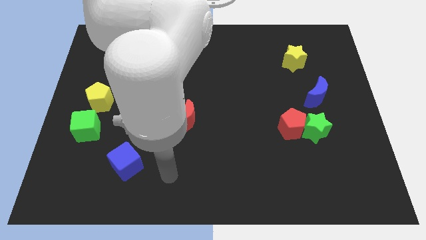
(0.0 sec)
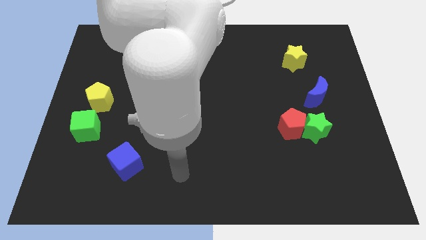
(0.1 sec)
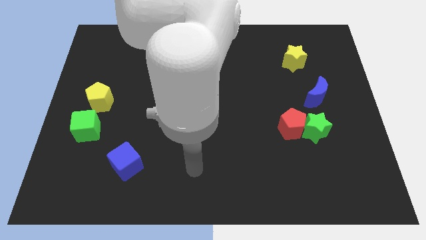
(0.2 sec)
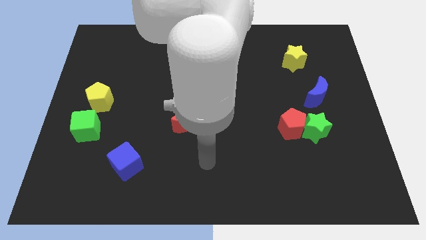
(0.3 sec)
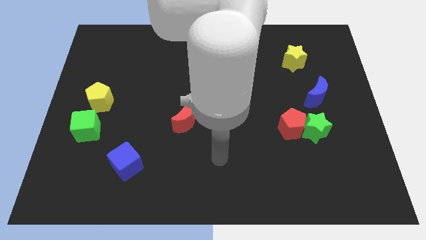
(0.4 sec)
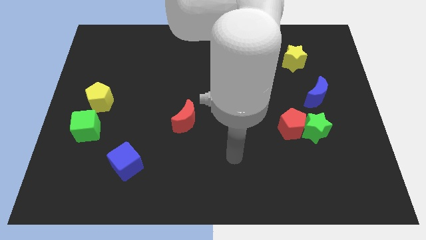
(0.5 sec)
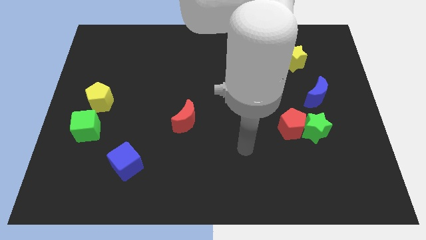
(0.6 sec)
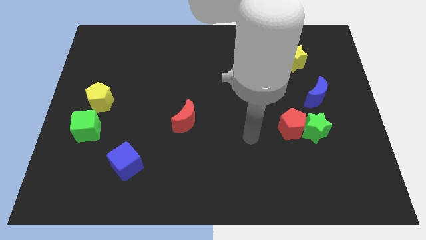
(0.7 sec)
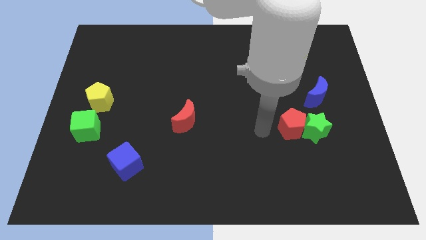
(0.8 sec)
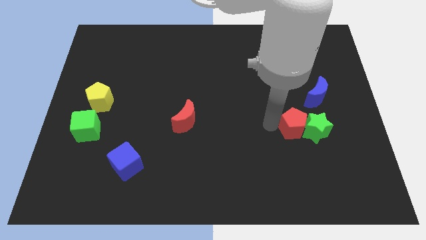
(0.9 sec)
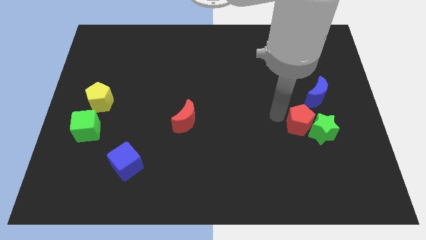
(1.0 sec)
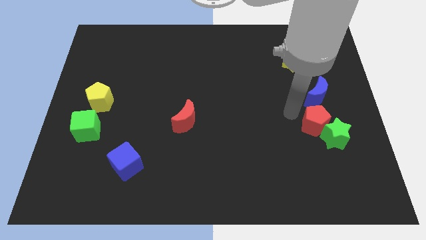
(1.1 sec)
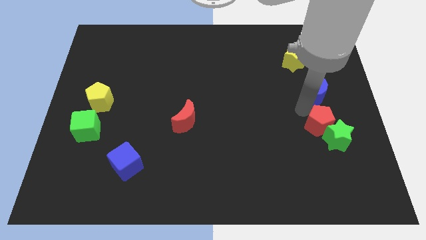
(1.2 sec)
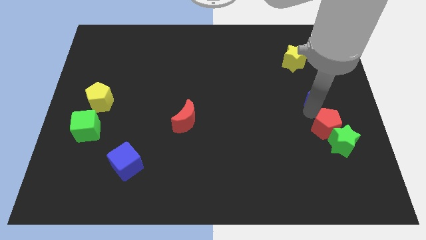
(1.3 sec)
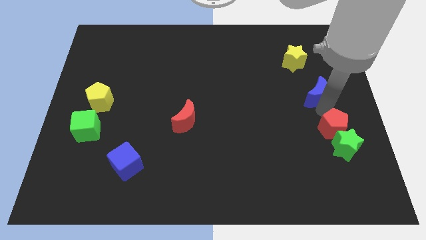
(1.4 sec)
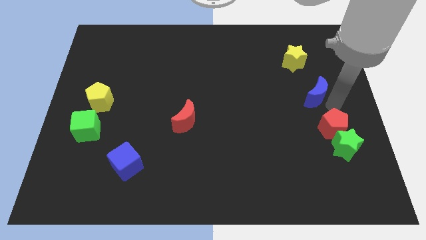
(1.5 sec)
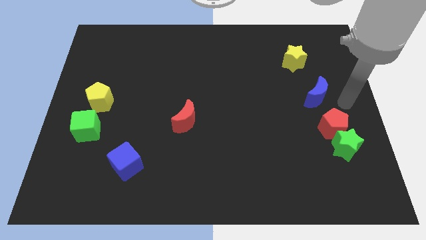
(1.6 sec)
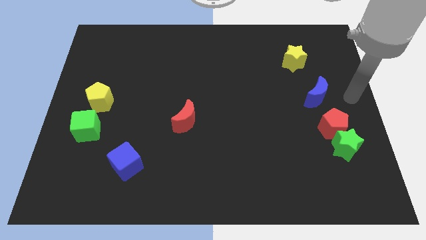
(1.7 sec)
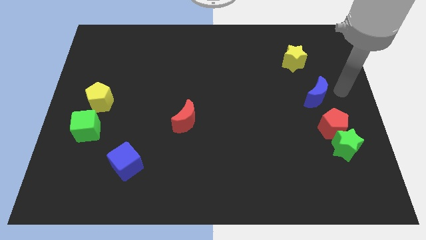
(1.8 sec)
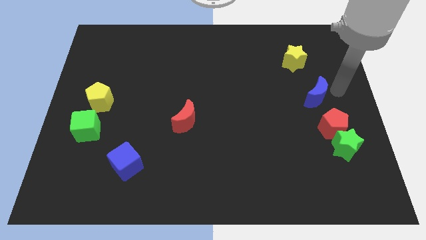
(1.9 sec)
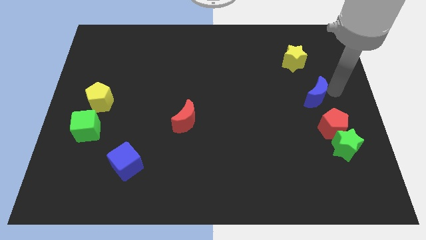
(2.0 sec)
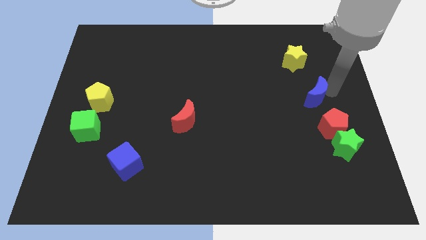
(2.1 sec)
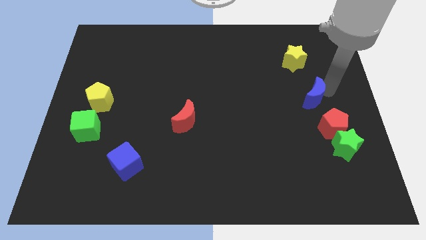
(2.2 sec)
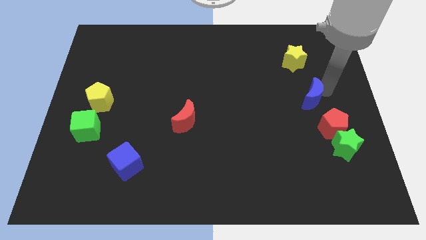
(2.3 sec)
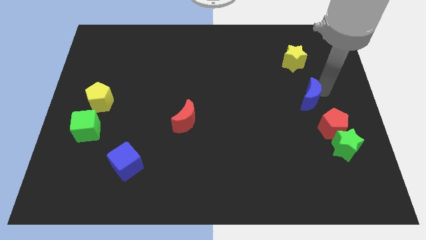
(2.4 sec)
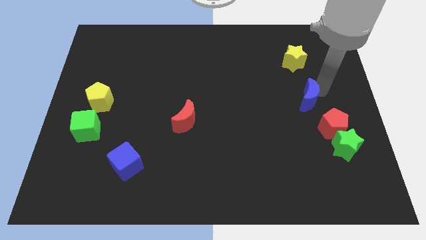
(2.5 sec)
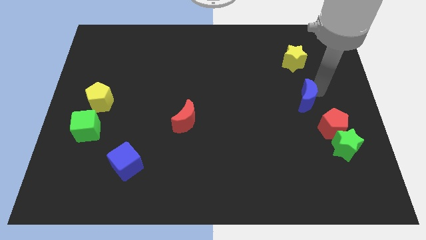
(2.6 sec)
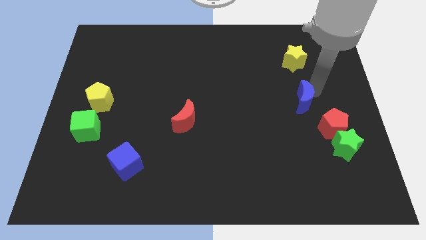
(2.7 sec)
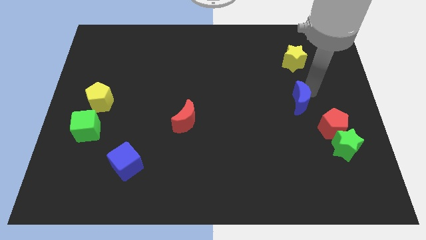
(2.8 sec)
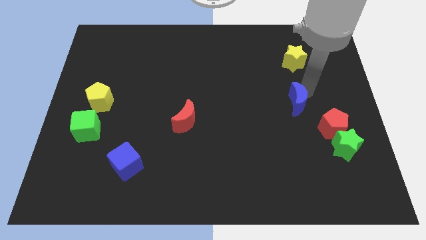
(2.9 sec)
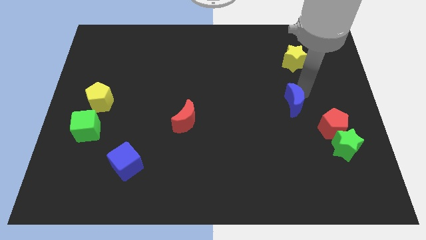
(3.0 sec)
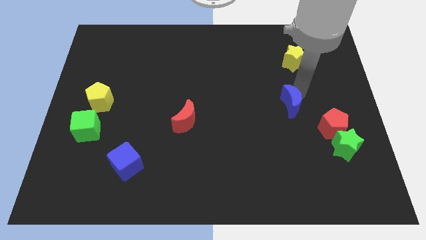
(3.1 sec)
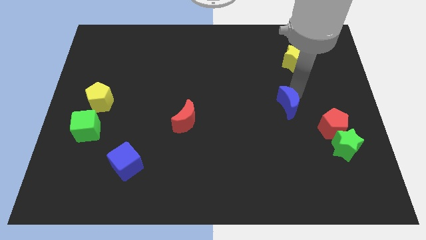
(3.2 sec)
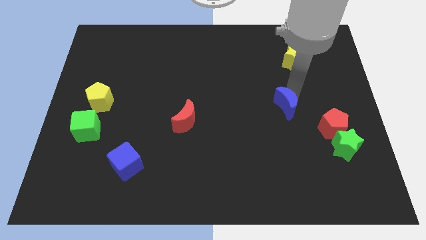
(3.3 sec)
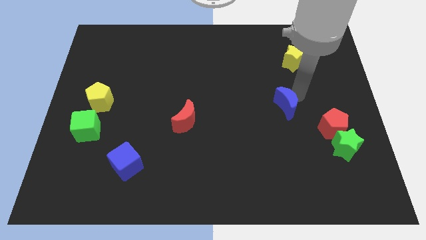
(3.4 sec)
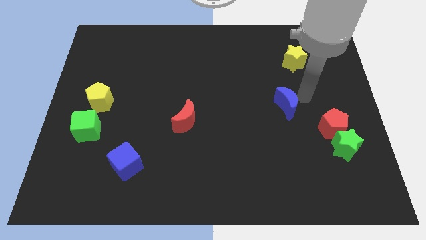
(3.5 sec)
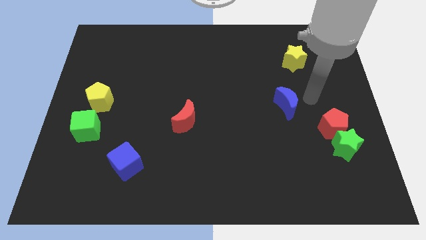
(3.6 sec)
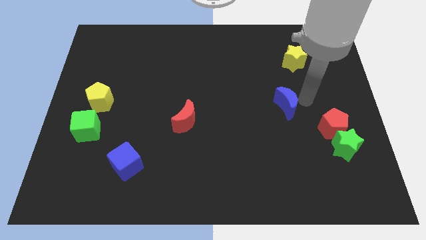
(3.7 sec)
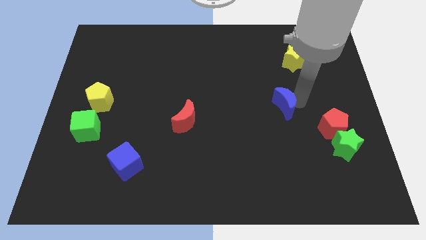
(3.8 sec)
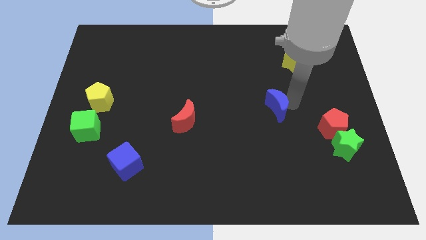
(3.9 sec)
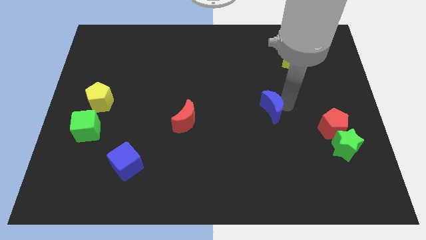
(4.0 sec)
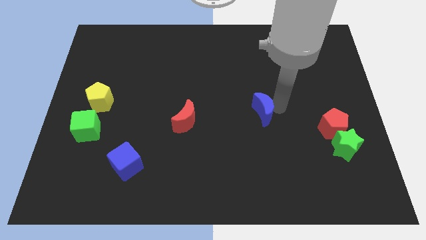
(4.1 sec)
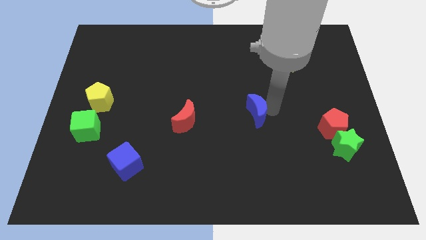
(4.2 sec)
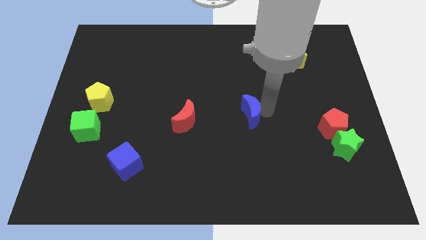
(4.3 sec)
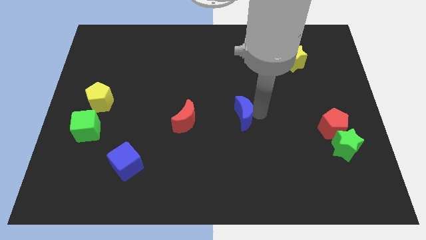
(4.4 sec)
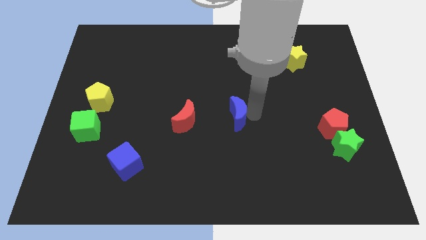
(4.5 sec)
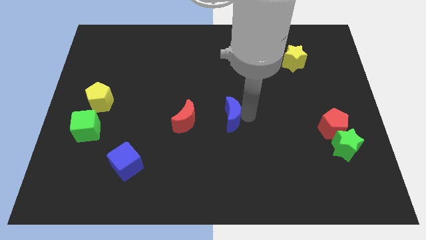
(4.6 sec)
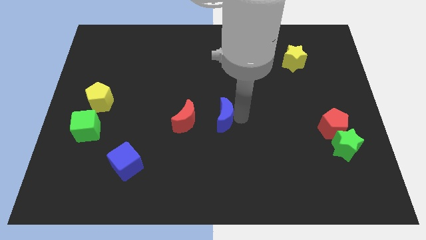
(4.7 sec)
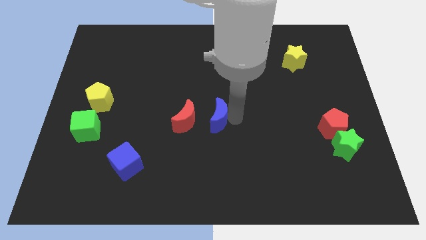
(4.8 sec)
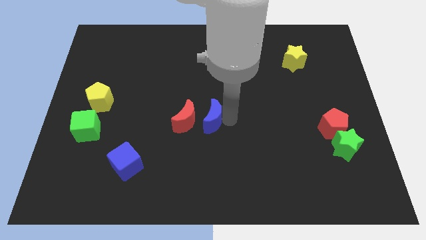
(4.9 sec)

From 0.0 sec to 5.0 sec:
slide the blue moon close to the red moon

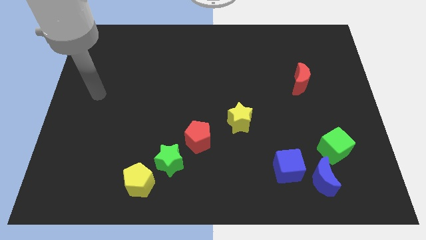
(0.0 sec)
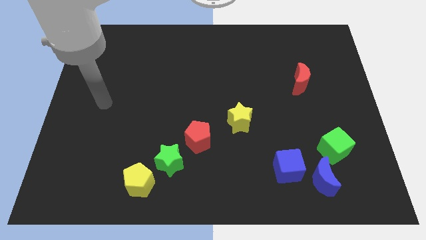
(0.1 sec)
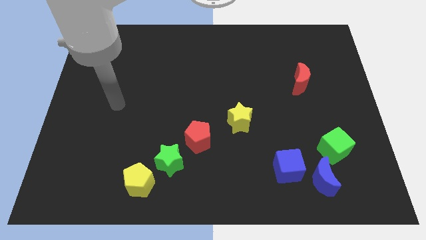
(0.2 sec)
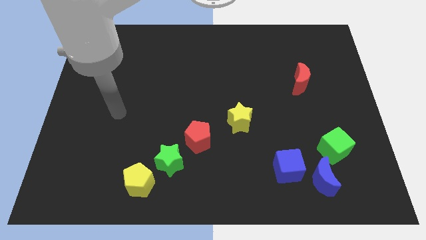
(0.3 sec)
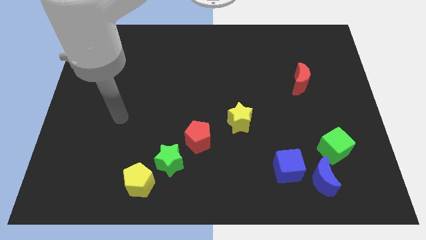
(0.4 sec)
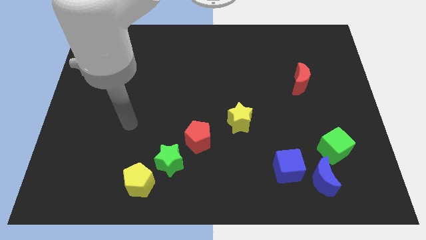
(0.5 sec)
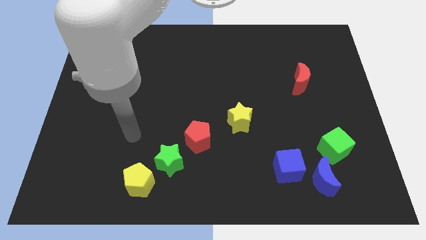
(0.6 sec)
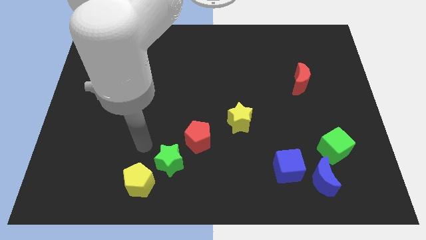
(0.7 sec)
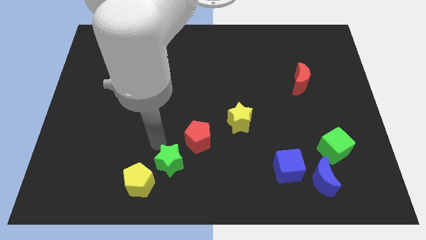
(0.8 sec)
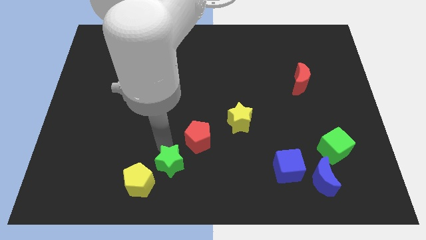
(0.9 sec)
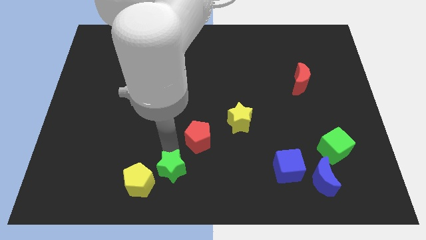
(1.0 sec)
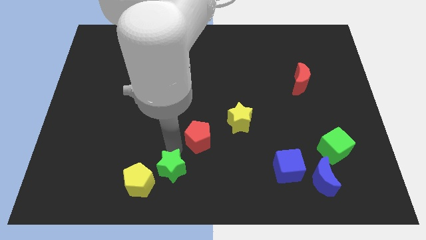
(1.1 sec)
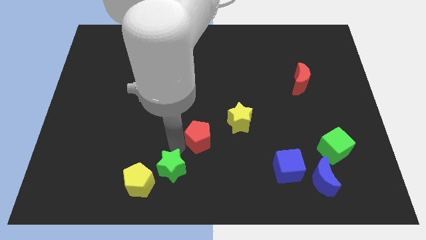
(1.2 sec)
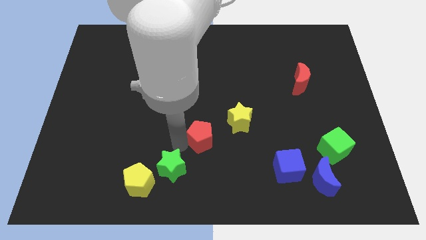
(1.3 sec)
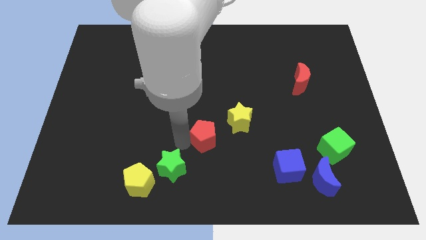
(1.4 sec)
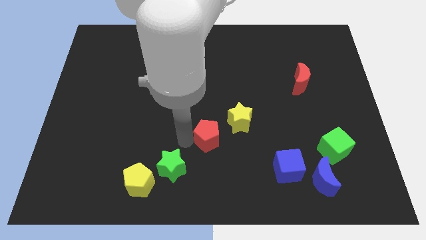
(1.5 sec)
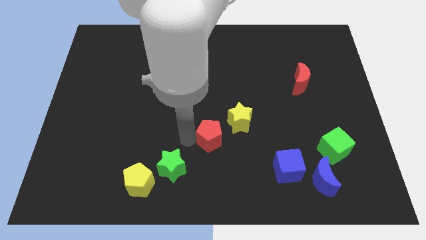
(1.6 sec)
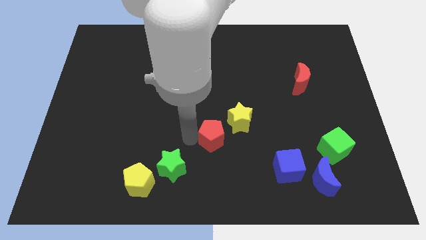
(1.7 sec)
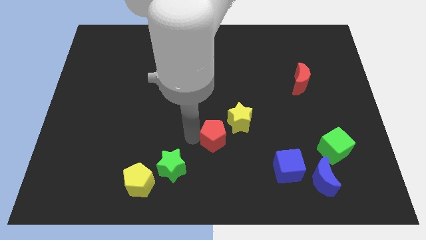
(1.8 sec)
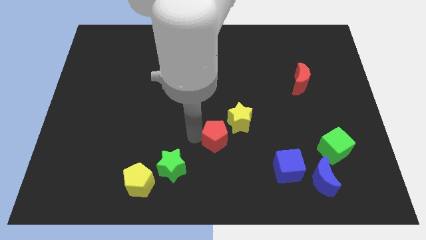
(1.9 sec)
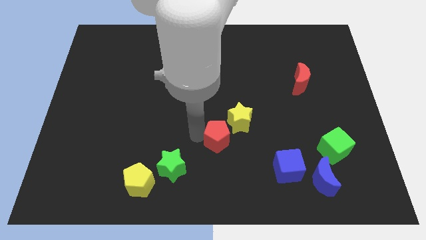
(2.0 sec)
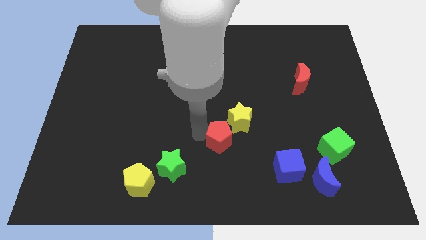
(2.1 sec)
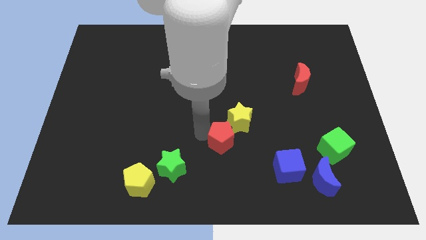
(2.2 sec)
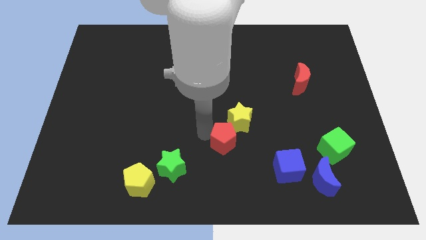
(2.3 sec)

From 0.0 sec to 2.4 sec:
slide the red pentagon towards the yellow star

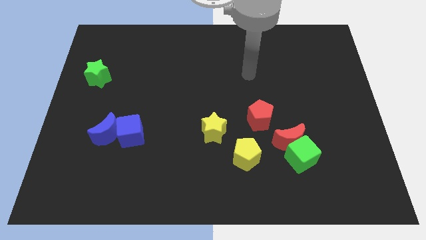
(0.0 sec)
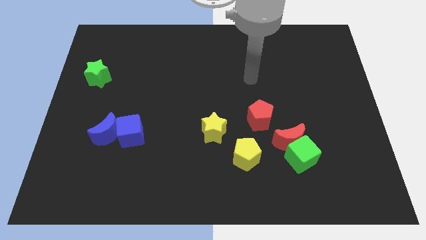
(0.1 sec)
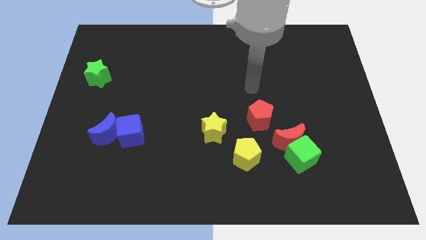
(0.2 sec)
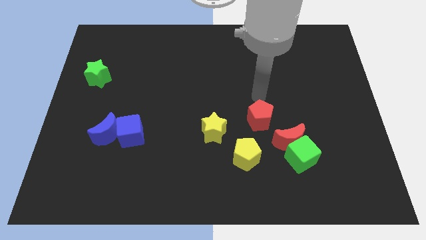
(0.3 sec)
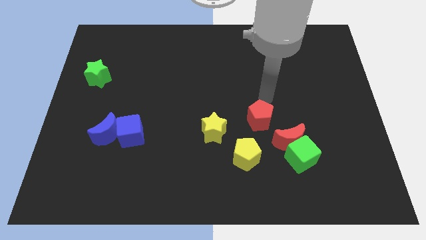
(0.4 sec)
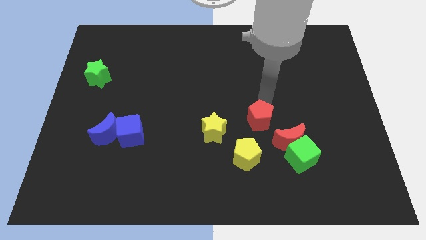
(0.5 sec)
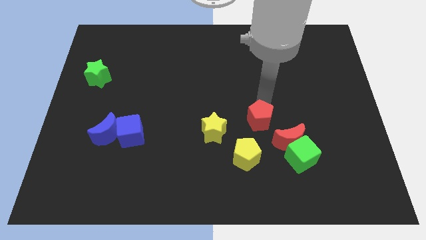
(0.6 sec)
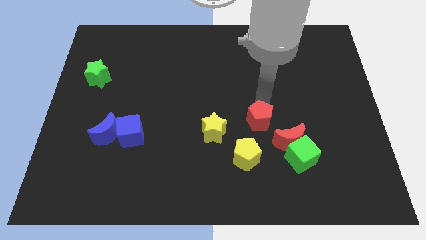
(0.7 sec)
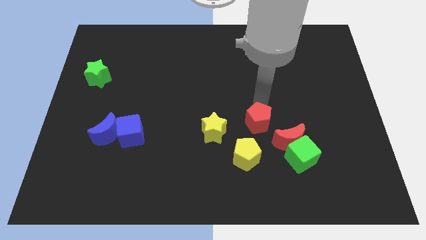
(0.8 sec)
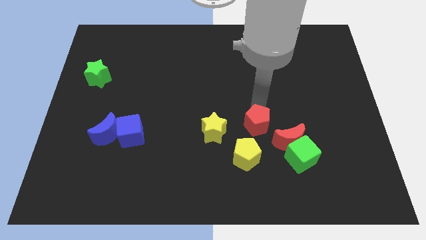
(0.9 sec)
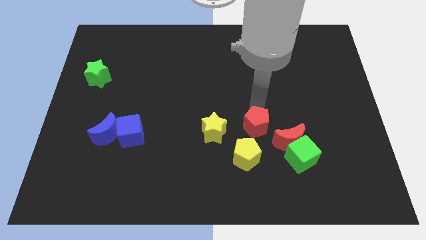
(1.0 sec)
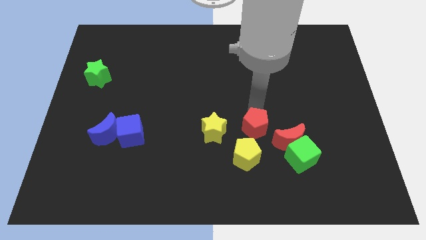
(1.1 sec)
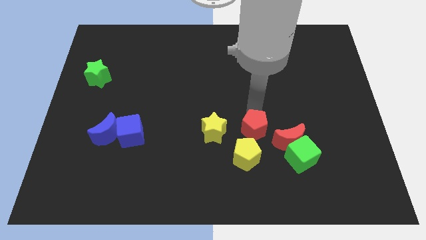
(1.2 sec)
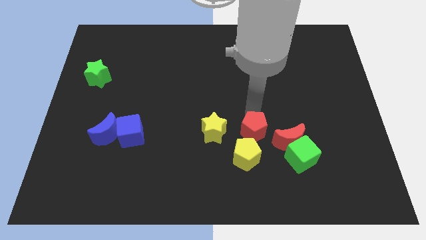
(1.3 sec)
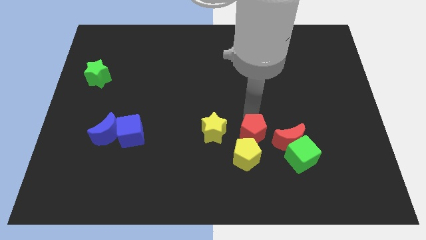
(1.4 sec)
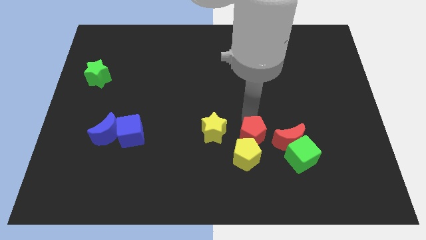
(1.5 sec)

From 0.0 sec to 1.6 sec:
push the red pentagon towards the yellow pentagon
